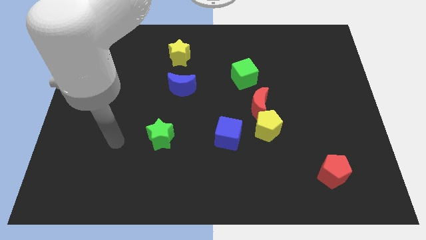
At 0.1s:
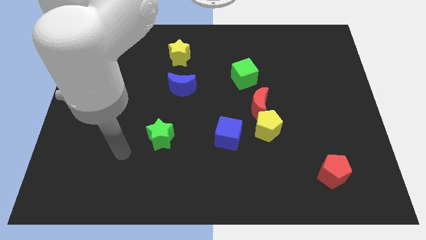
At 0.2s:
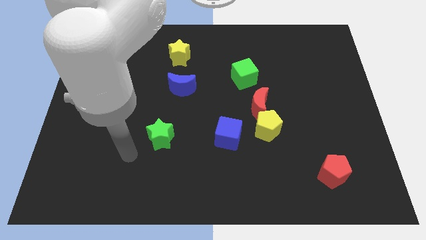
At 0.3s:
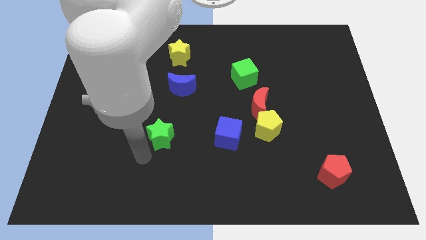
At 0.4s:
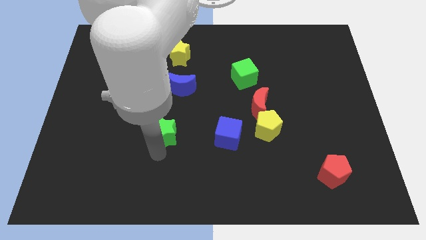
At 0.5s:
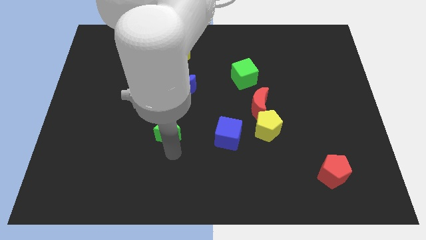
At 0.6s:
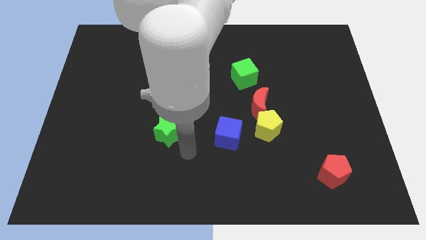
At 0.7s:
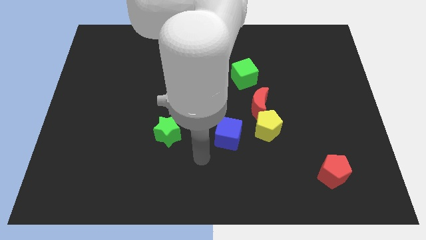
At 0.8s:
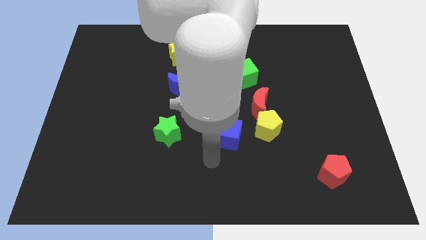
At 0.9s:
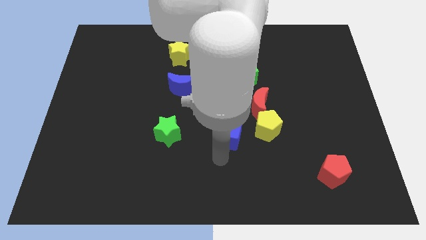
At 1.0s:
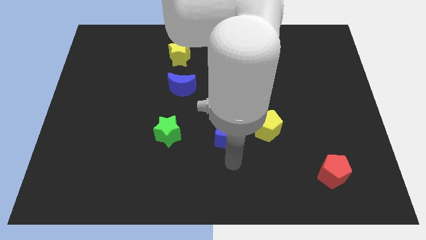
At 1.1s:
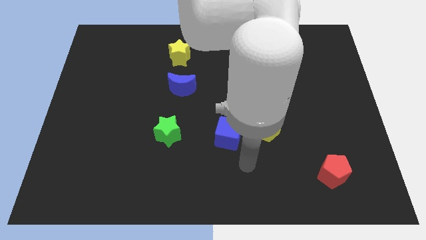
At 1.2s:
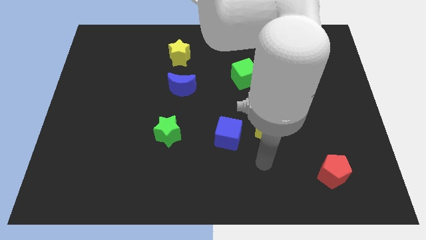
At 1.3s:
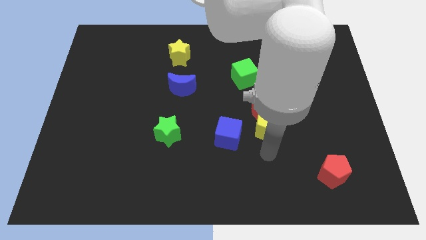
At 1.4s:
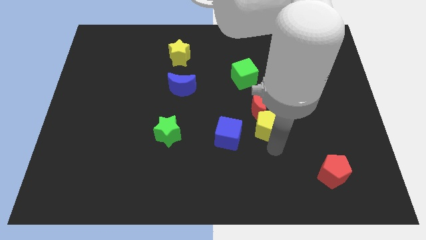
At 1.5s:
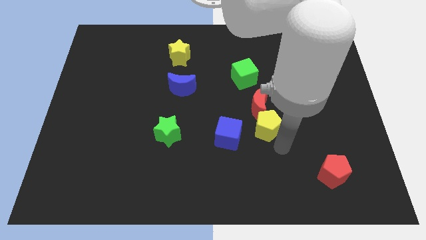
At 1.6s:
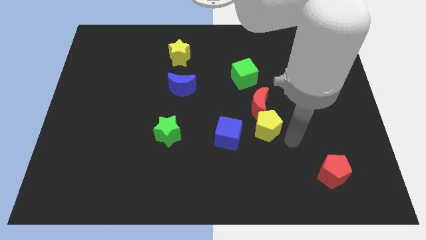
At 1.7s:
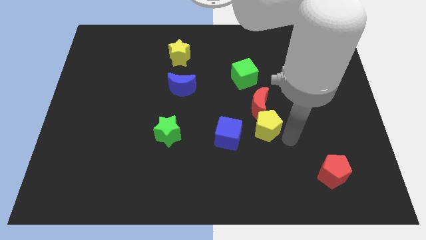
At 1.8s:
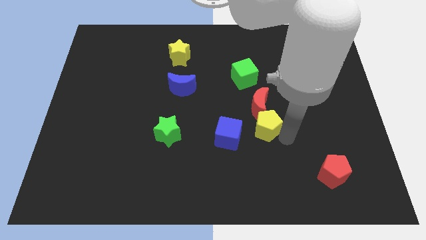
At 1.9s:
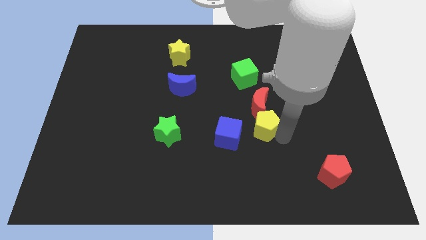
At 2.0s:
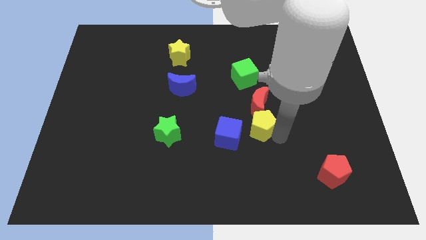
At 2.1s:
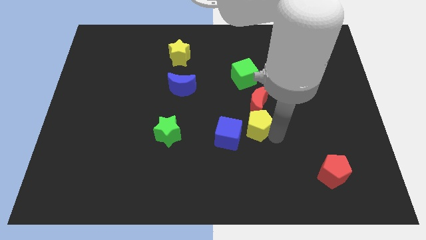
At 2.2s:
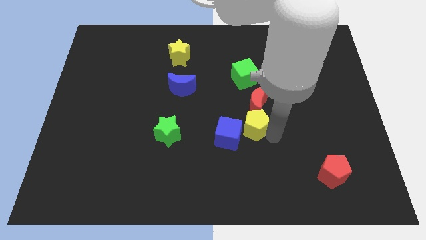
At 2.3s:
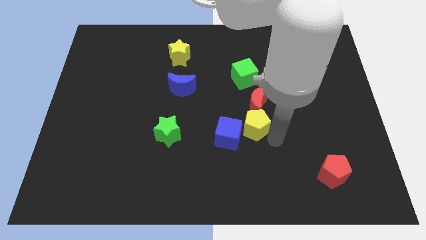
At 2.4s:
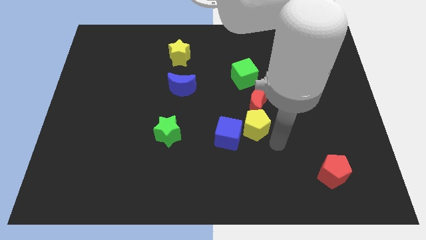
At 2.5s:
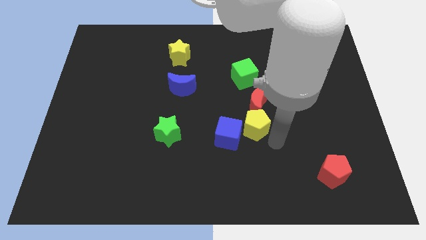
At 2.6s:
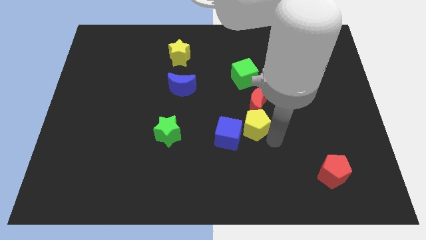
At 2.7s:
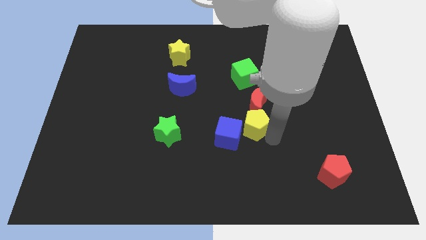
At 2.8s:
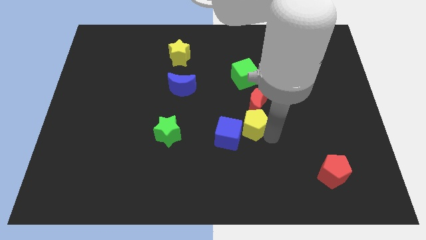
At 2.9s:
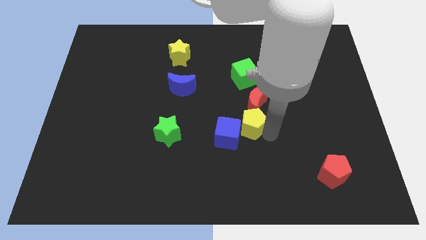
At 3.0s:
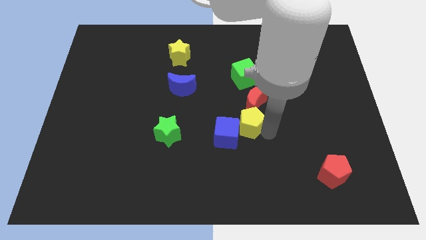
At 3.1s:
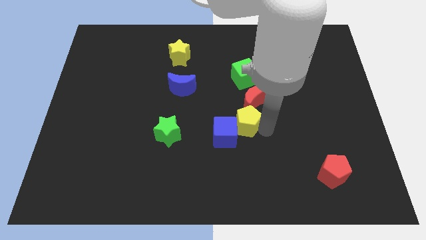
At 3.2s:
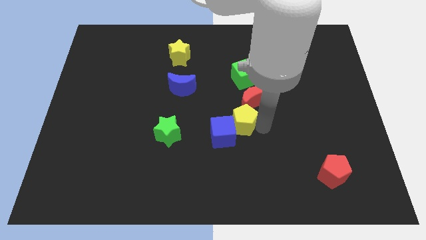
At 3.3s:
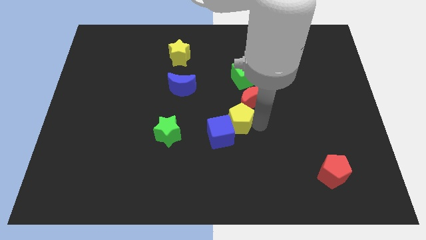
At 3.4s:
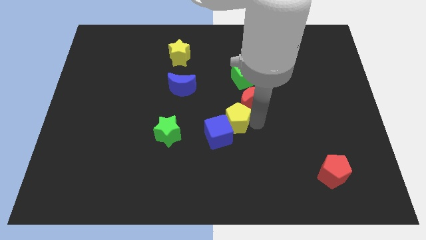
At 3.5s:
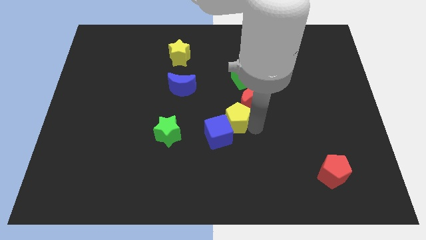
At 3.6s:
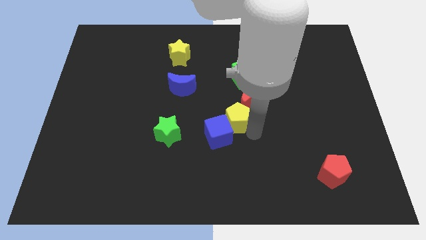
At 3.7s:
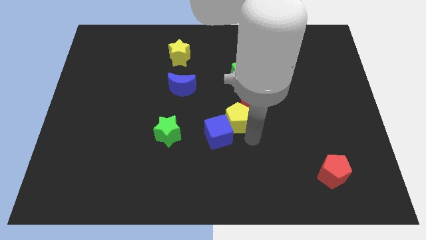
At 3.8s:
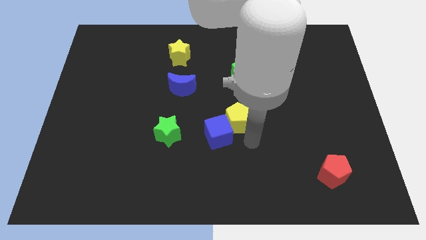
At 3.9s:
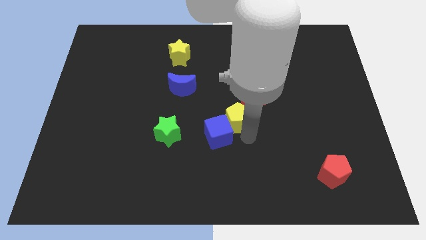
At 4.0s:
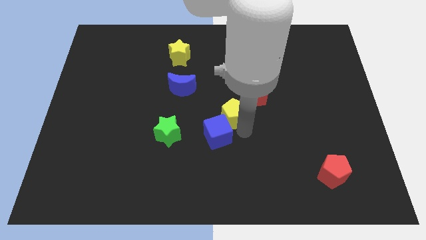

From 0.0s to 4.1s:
move the yellow pentagon a little bit upwards and to the left

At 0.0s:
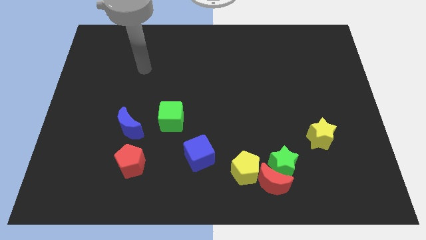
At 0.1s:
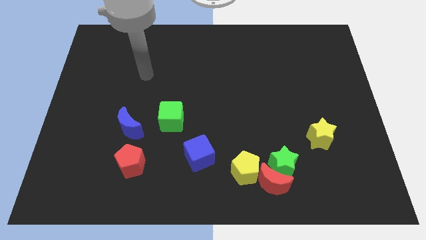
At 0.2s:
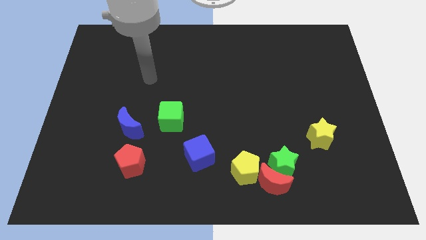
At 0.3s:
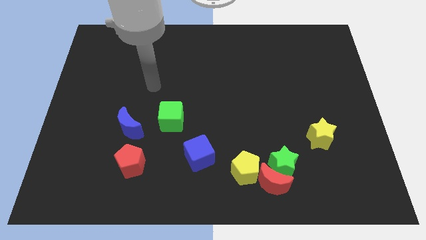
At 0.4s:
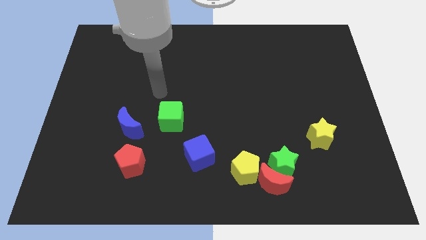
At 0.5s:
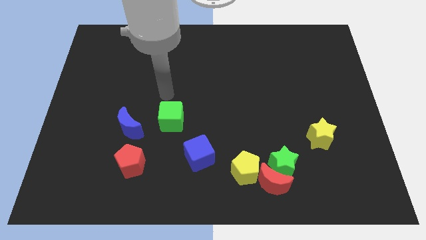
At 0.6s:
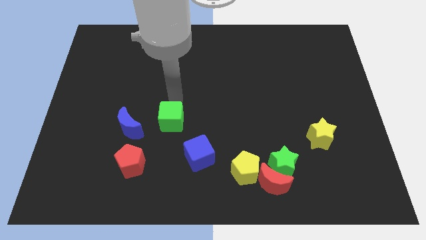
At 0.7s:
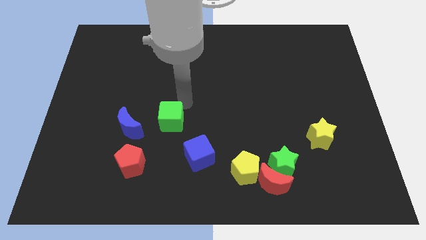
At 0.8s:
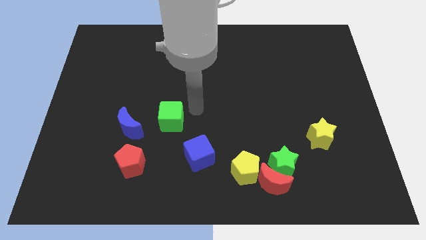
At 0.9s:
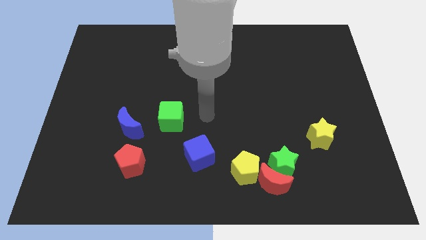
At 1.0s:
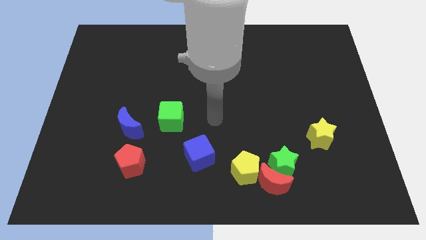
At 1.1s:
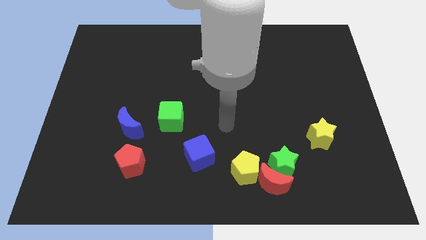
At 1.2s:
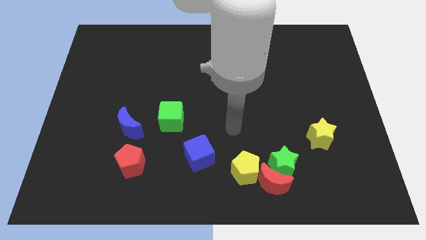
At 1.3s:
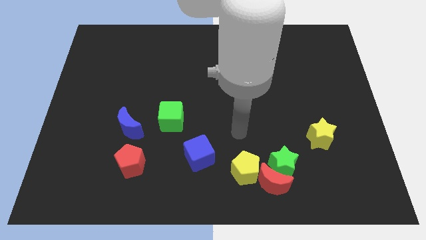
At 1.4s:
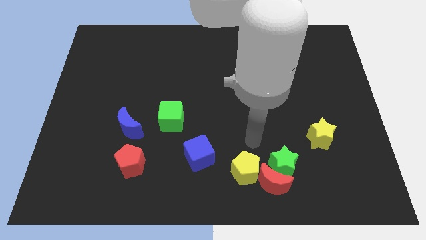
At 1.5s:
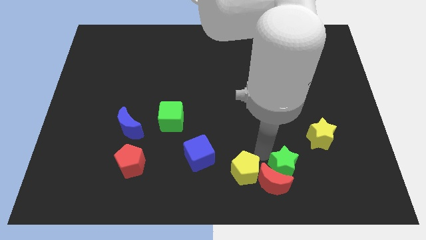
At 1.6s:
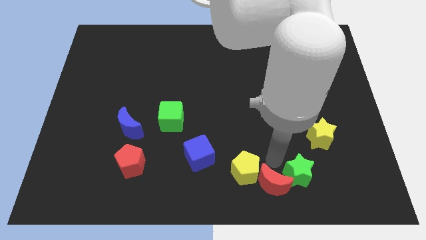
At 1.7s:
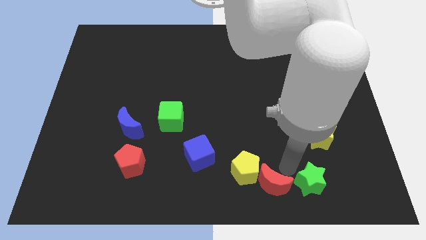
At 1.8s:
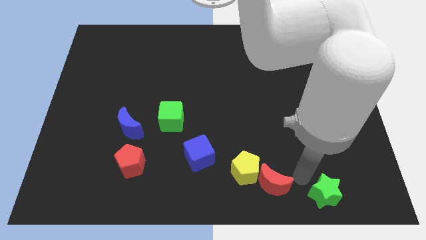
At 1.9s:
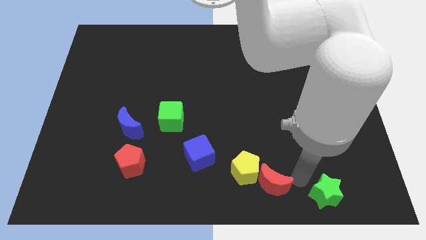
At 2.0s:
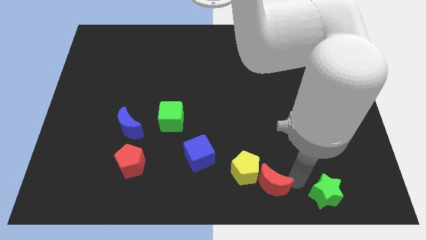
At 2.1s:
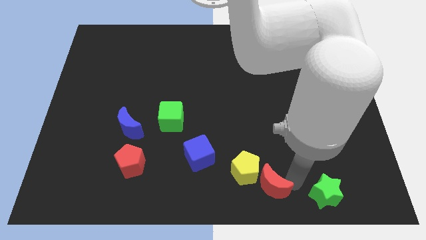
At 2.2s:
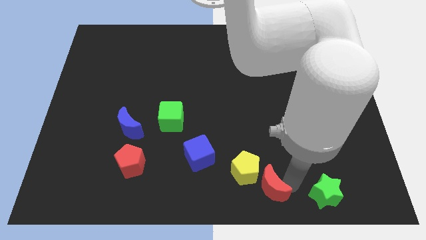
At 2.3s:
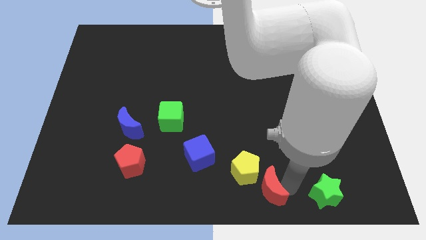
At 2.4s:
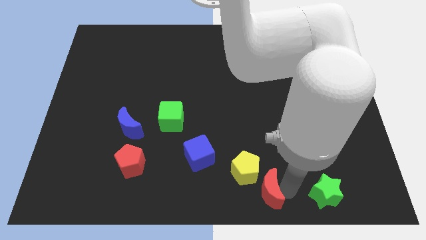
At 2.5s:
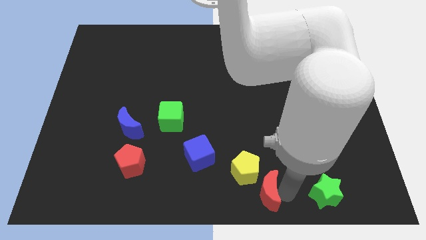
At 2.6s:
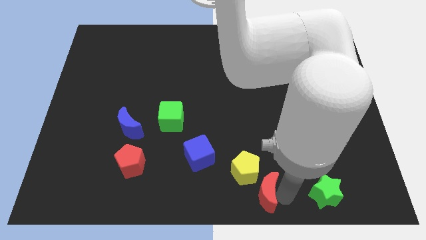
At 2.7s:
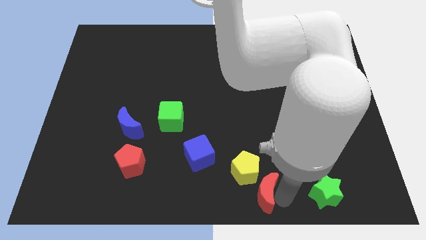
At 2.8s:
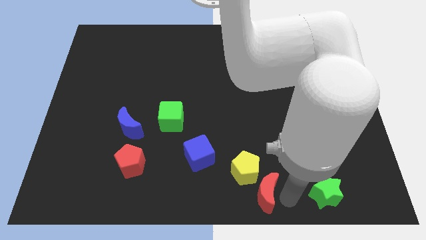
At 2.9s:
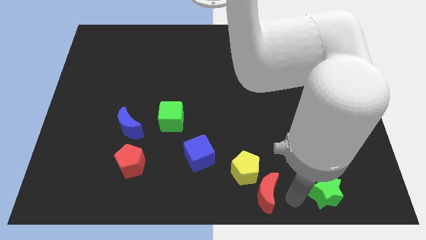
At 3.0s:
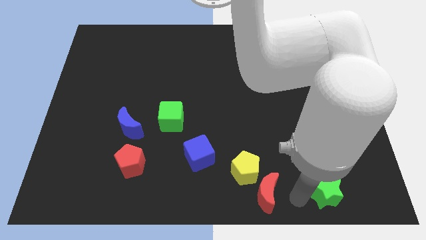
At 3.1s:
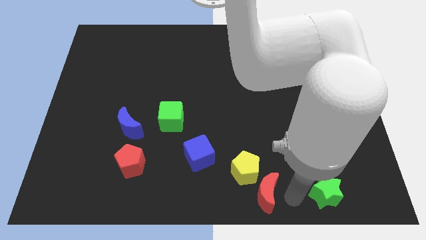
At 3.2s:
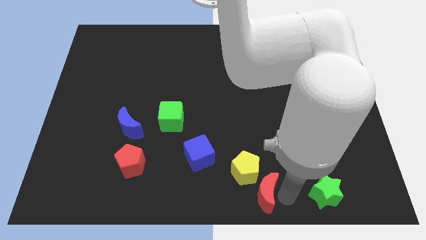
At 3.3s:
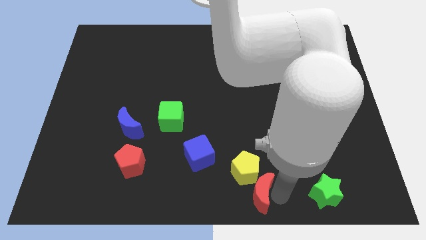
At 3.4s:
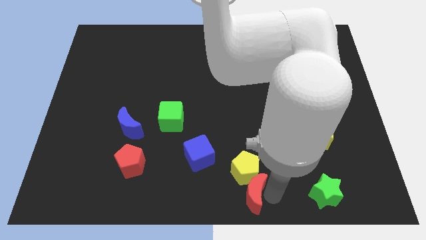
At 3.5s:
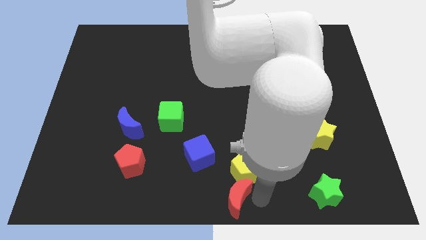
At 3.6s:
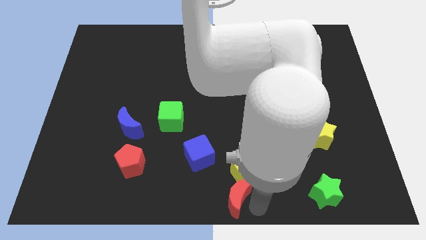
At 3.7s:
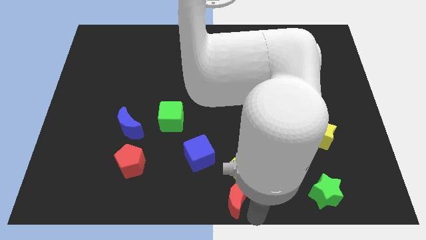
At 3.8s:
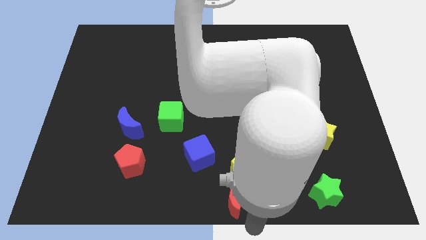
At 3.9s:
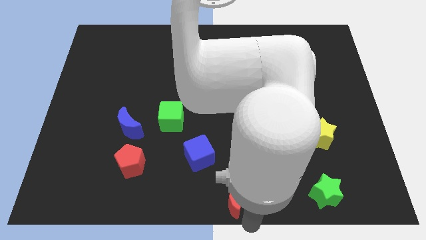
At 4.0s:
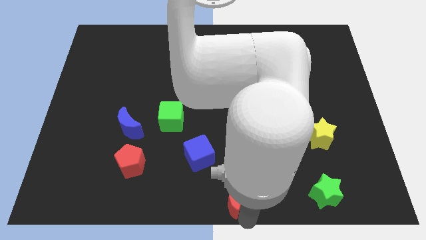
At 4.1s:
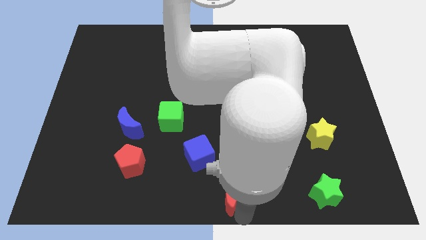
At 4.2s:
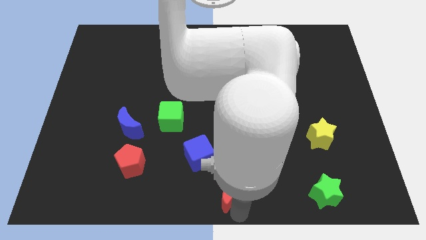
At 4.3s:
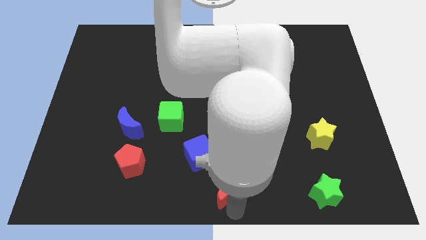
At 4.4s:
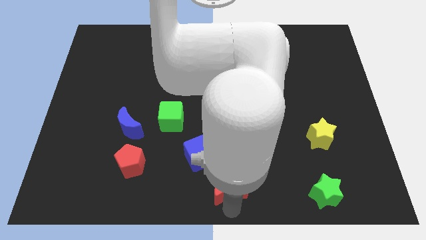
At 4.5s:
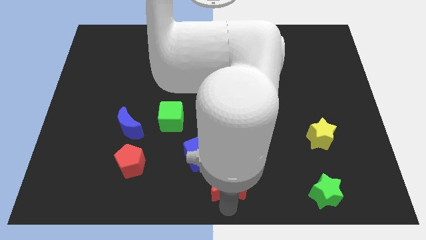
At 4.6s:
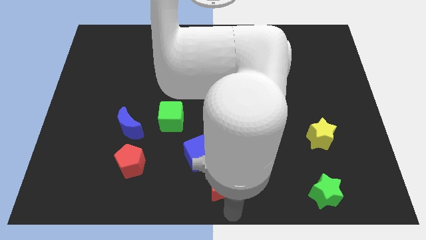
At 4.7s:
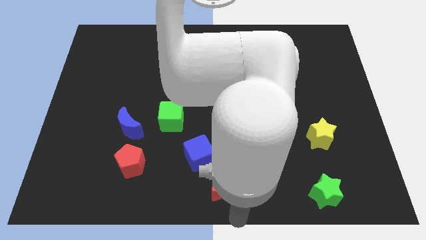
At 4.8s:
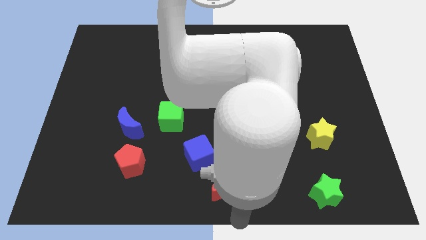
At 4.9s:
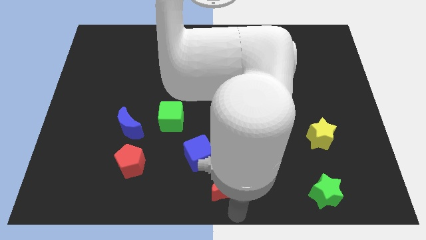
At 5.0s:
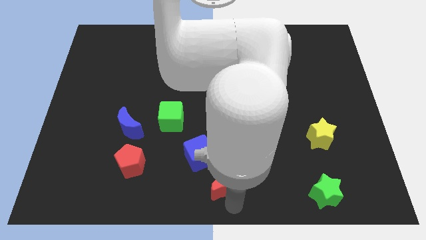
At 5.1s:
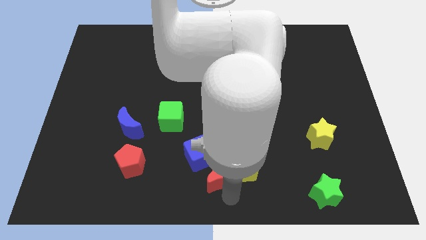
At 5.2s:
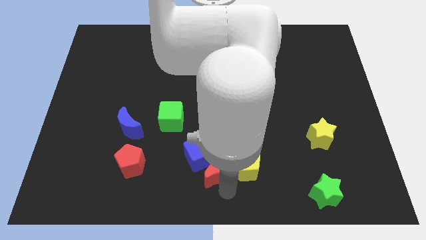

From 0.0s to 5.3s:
slightly push the red moon upwards and left diagonally
